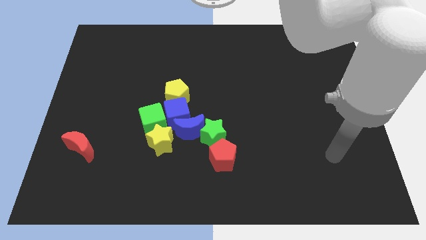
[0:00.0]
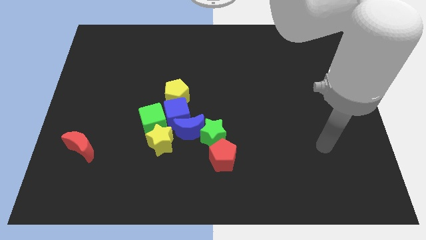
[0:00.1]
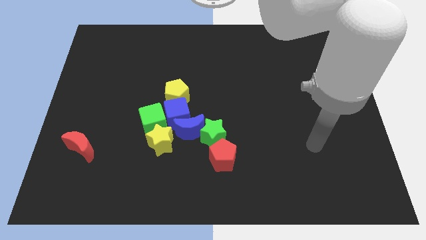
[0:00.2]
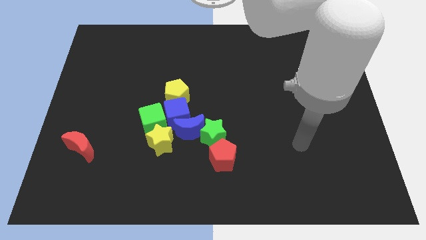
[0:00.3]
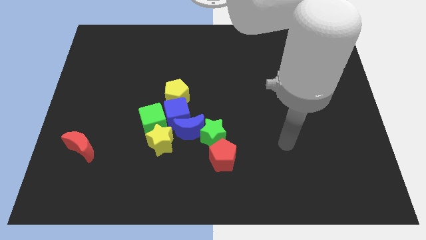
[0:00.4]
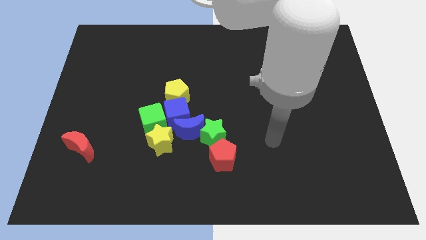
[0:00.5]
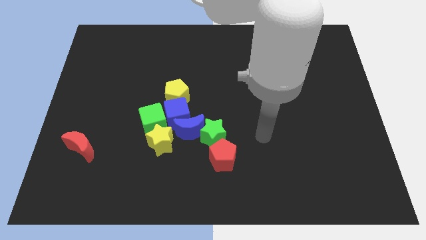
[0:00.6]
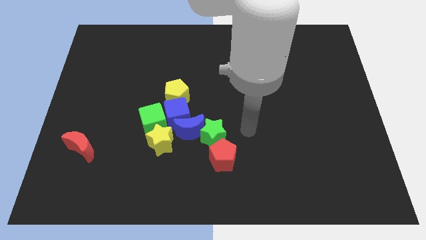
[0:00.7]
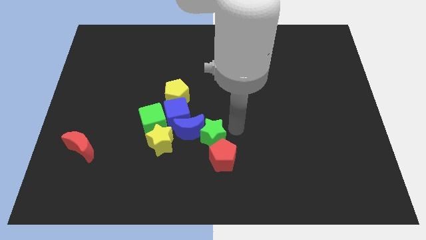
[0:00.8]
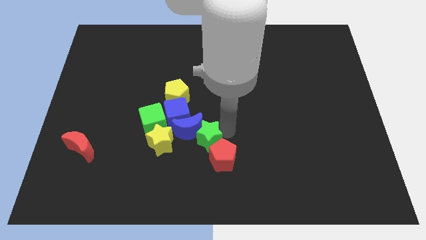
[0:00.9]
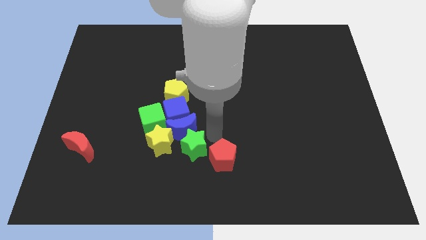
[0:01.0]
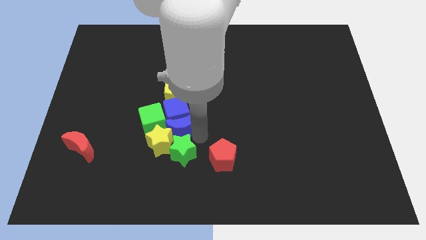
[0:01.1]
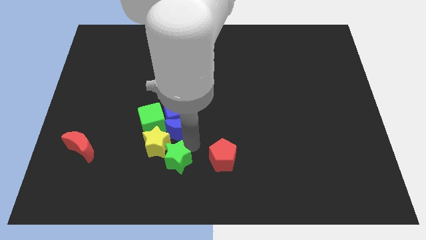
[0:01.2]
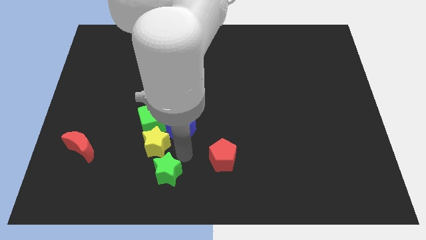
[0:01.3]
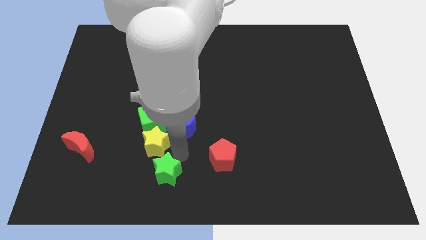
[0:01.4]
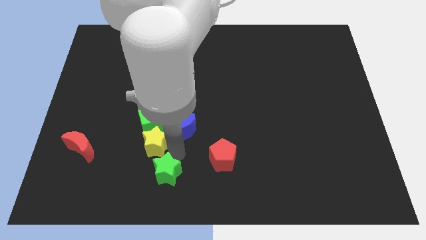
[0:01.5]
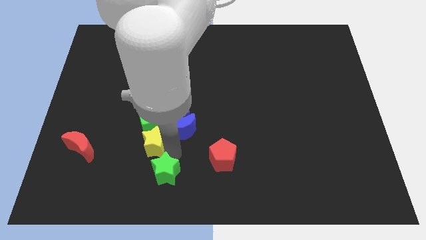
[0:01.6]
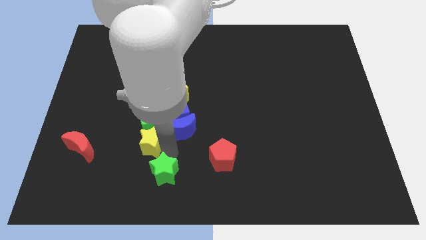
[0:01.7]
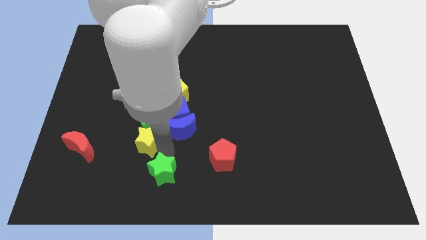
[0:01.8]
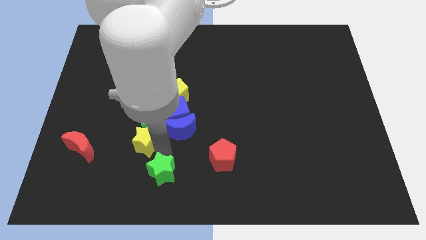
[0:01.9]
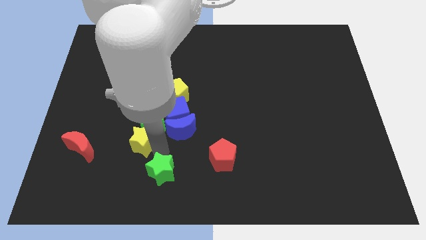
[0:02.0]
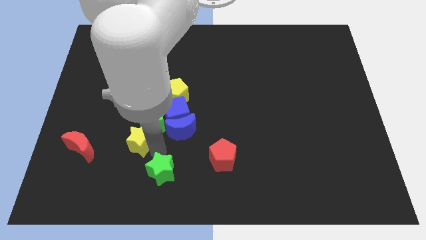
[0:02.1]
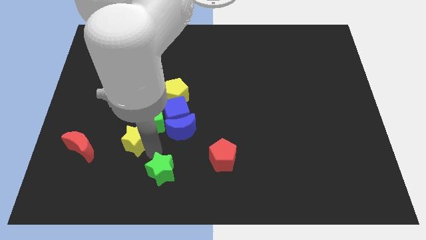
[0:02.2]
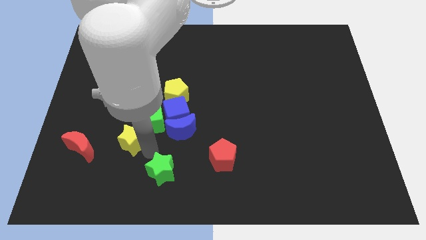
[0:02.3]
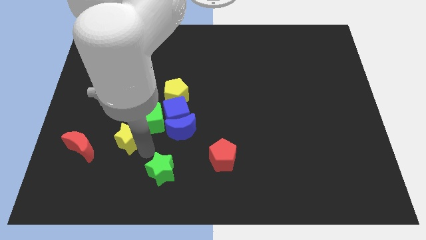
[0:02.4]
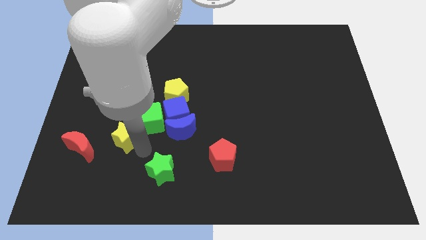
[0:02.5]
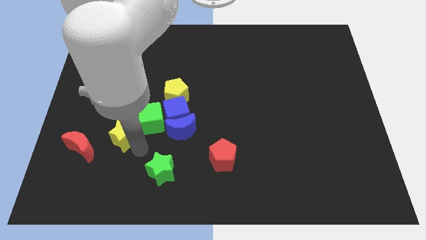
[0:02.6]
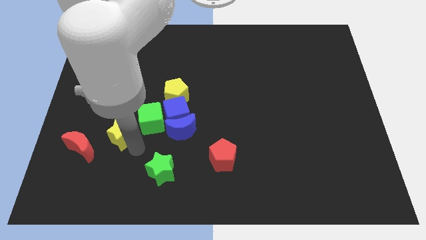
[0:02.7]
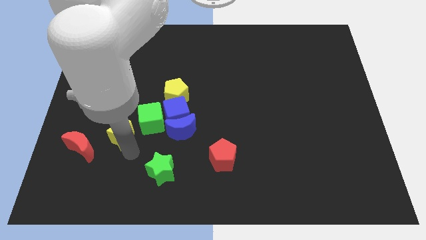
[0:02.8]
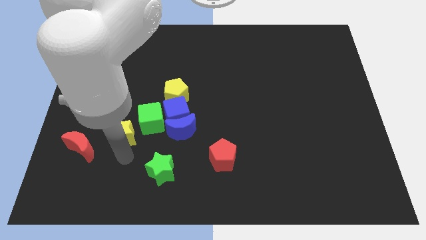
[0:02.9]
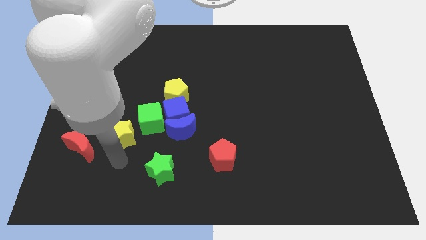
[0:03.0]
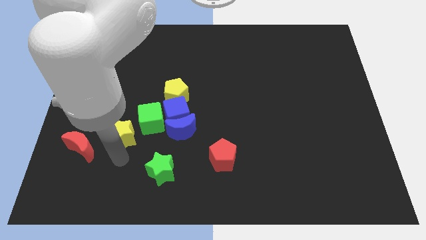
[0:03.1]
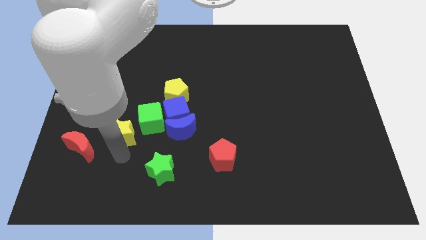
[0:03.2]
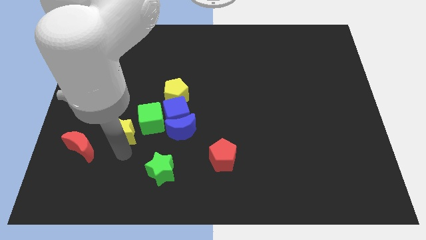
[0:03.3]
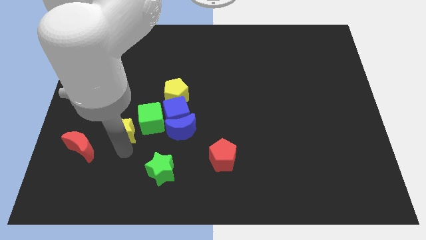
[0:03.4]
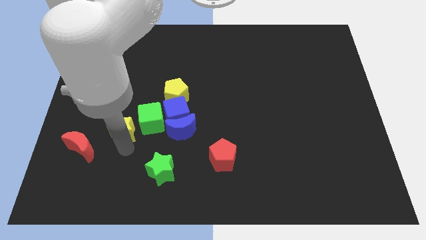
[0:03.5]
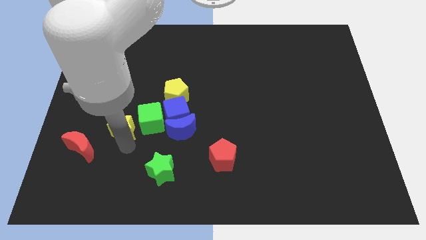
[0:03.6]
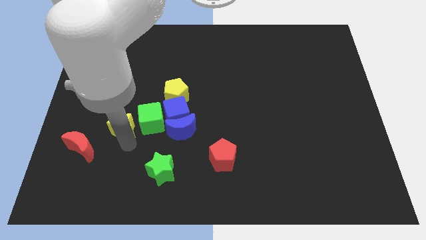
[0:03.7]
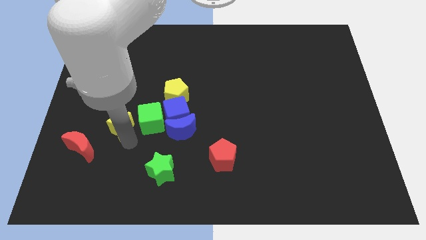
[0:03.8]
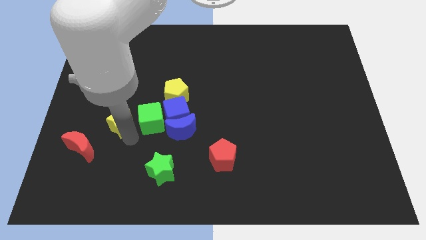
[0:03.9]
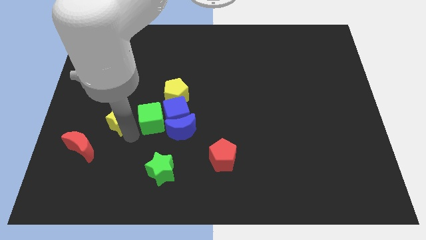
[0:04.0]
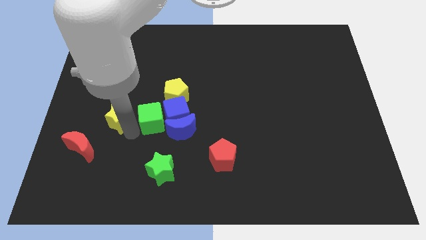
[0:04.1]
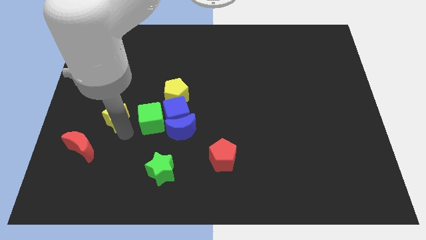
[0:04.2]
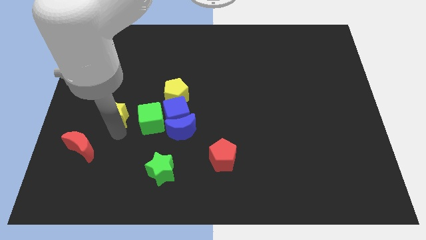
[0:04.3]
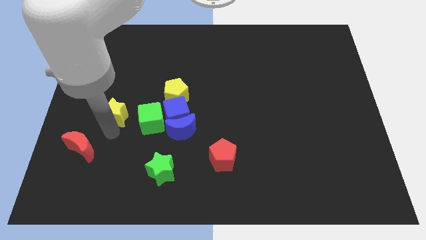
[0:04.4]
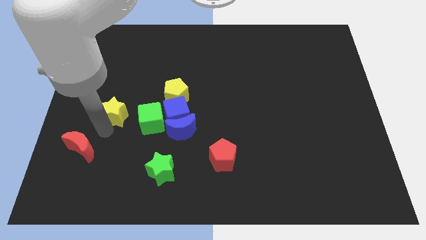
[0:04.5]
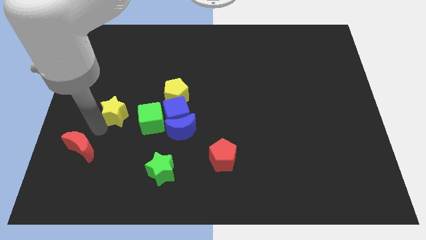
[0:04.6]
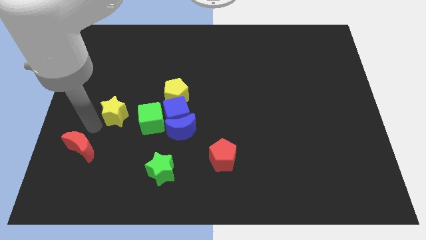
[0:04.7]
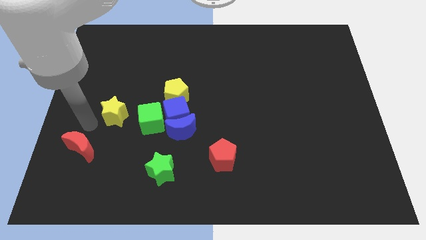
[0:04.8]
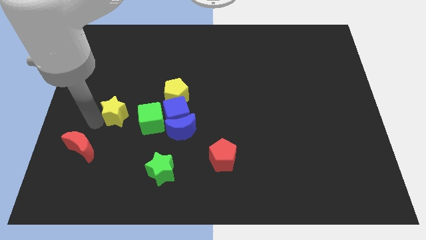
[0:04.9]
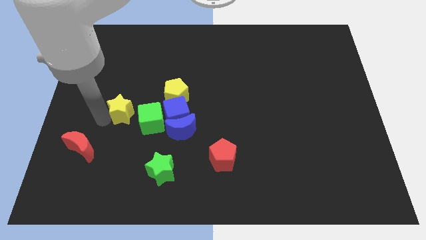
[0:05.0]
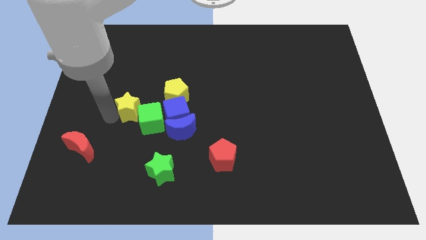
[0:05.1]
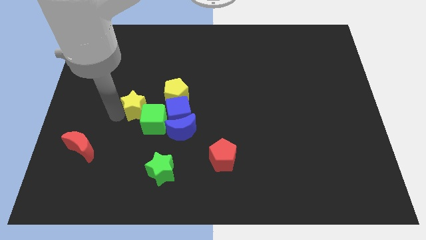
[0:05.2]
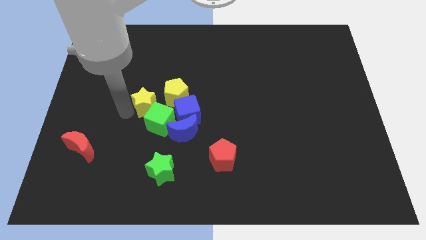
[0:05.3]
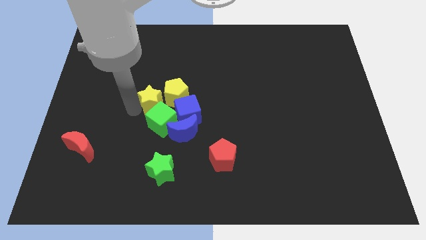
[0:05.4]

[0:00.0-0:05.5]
slide the yellow star to the yellow pentagon
